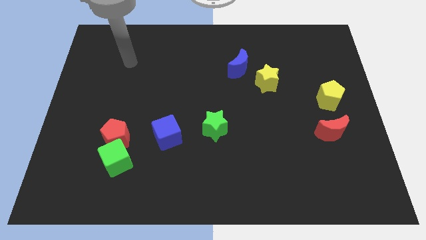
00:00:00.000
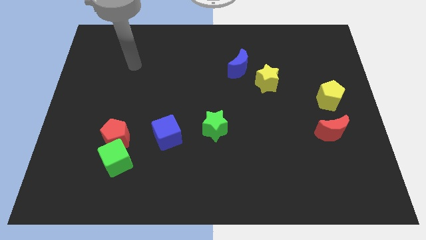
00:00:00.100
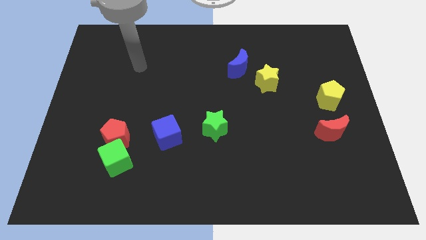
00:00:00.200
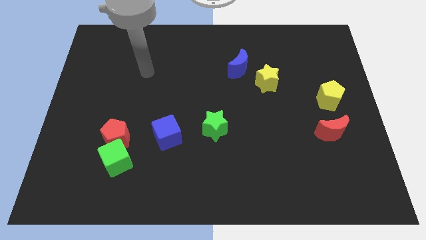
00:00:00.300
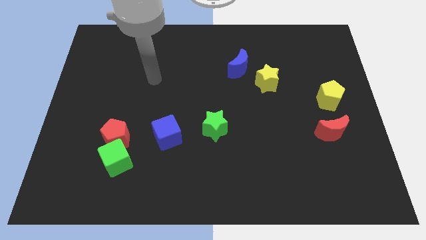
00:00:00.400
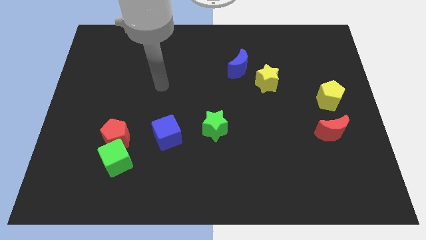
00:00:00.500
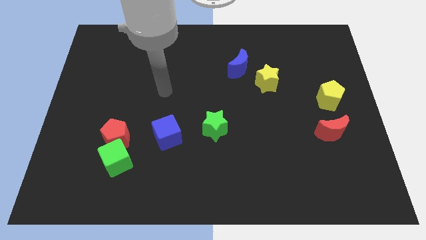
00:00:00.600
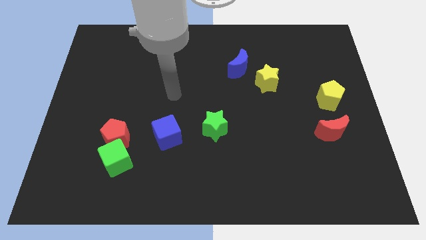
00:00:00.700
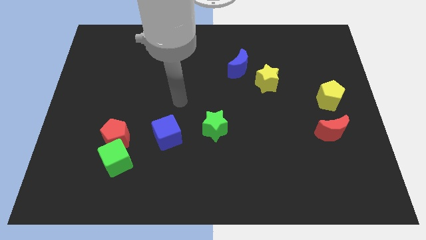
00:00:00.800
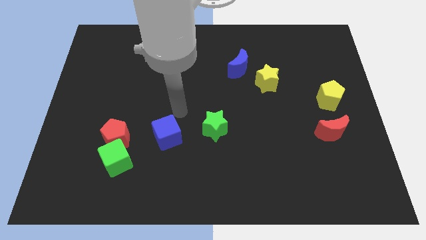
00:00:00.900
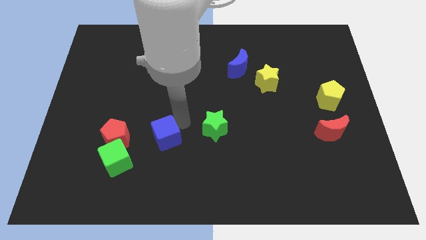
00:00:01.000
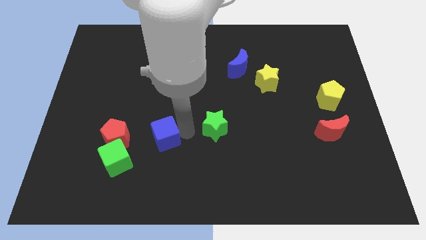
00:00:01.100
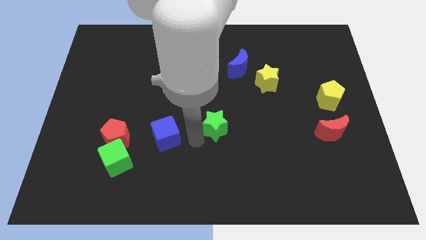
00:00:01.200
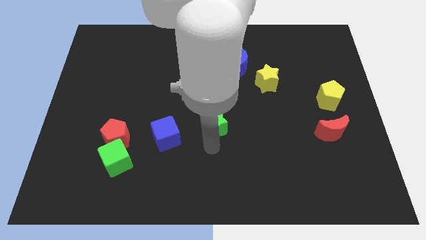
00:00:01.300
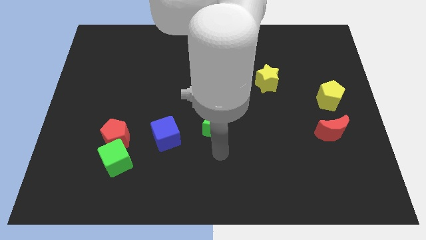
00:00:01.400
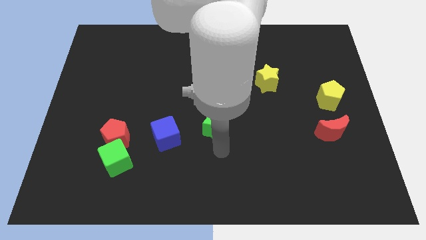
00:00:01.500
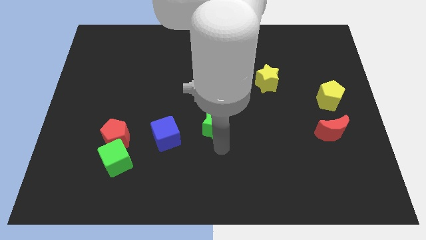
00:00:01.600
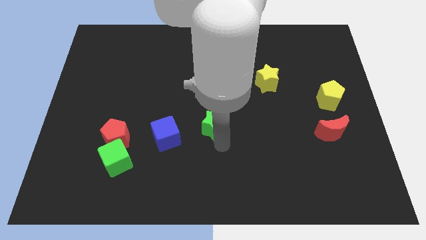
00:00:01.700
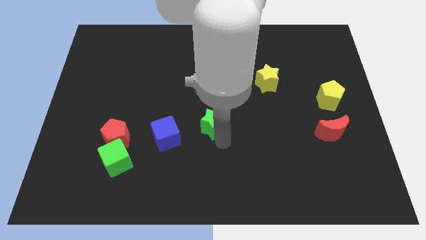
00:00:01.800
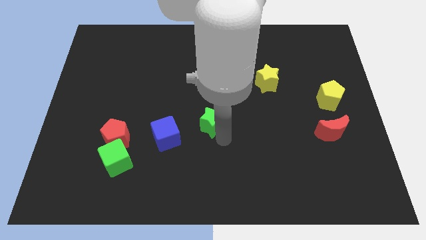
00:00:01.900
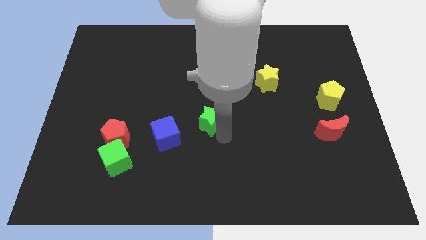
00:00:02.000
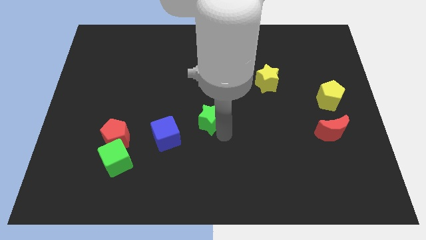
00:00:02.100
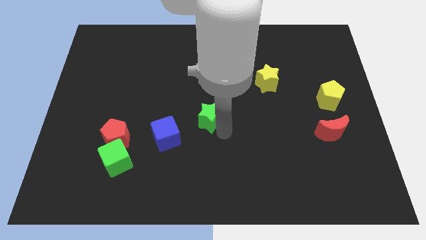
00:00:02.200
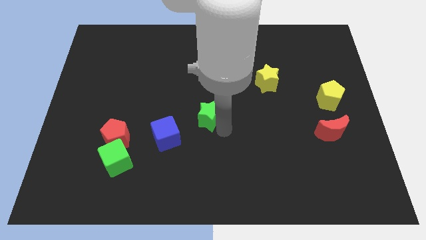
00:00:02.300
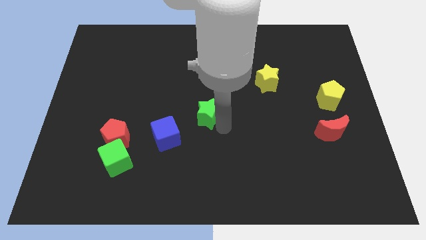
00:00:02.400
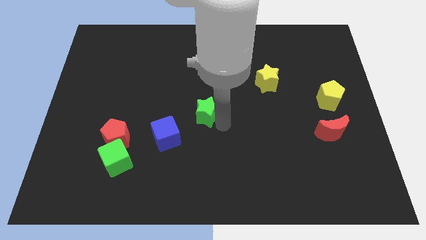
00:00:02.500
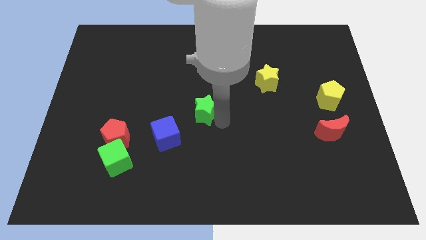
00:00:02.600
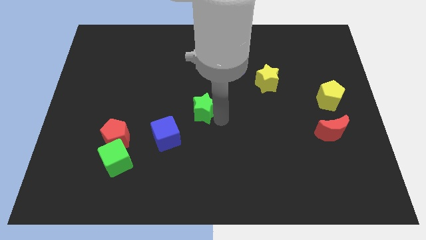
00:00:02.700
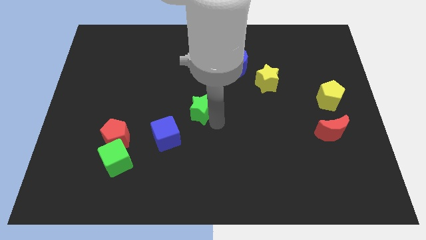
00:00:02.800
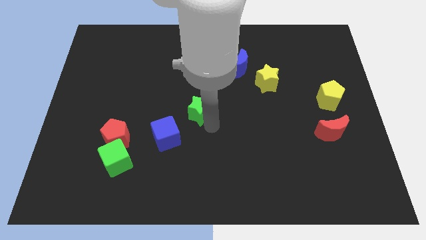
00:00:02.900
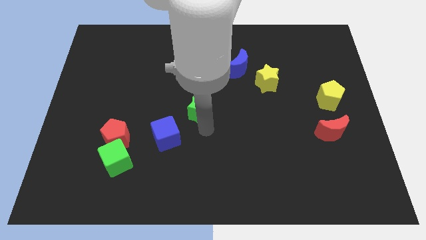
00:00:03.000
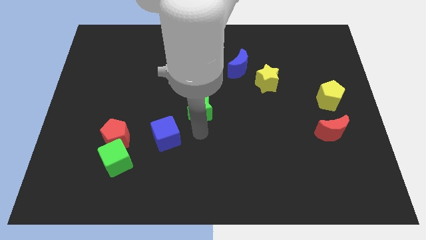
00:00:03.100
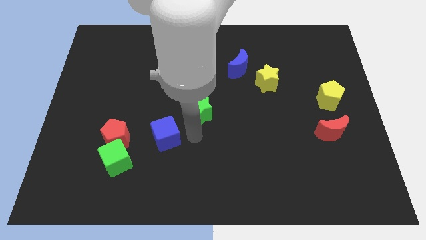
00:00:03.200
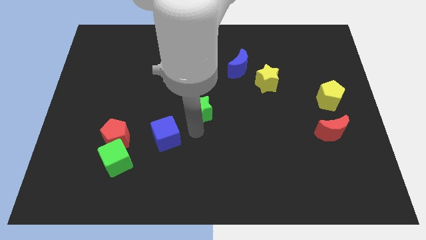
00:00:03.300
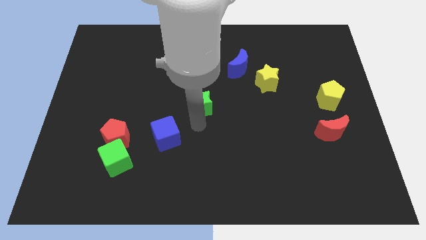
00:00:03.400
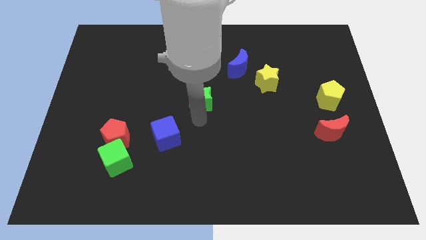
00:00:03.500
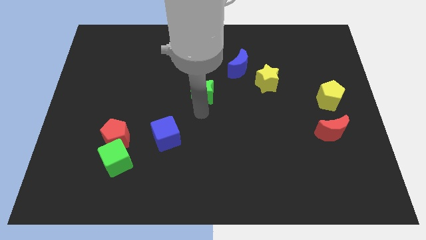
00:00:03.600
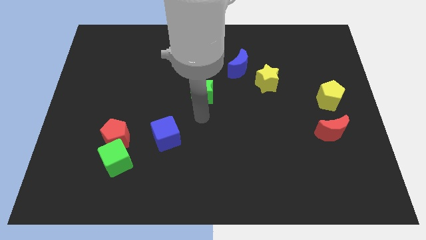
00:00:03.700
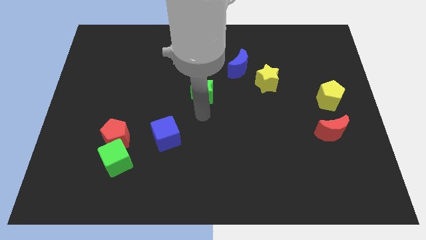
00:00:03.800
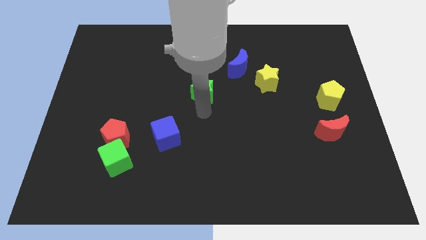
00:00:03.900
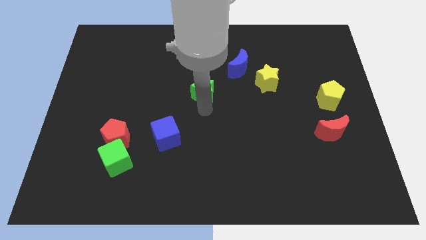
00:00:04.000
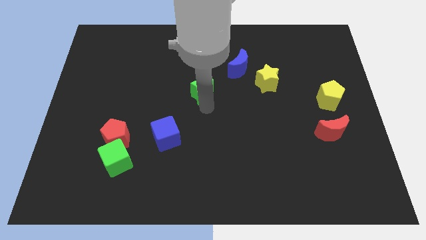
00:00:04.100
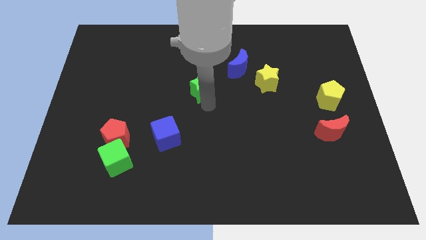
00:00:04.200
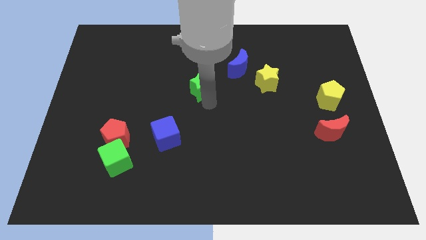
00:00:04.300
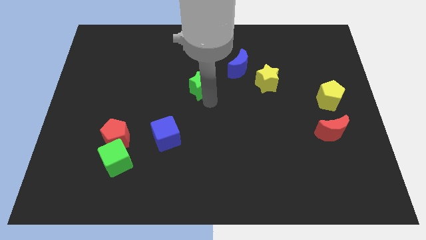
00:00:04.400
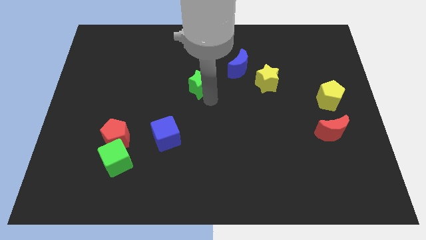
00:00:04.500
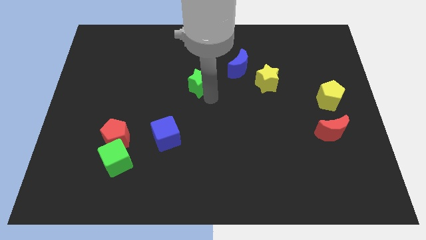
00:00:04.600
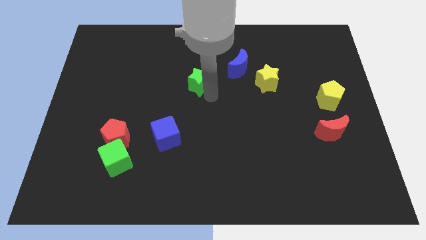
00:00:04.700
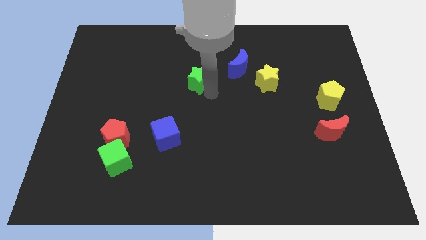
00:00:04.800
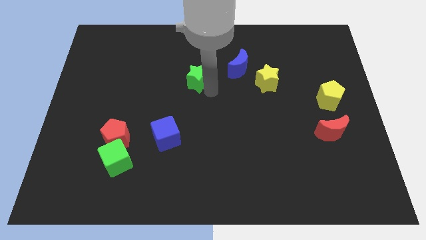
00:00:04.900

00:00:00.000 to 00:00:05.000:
put the green star to the left side of the blue moon
